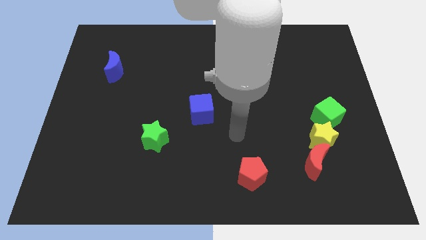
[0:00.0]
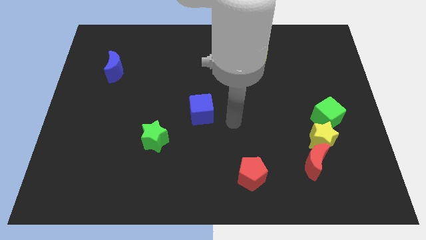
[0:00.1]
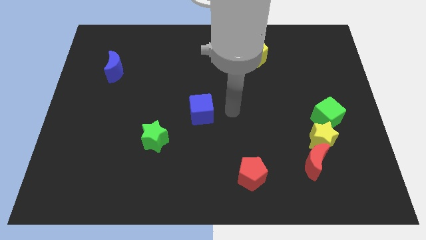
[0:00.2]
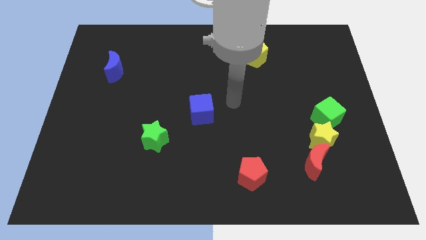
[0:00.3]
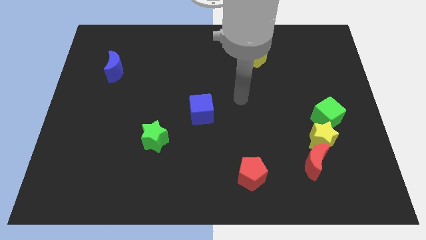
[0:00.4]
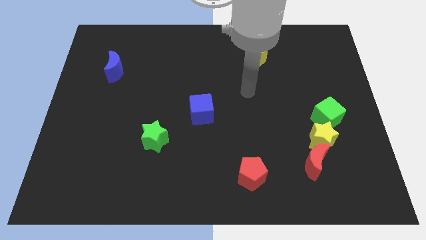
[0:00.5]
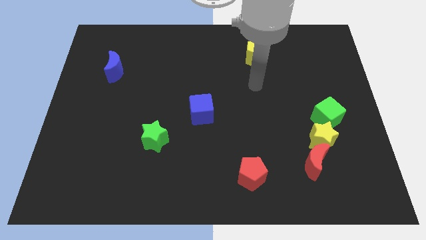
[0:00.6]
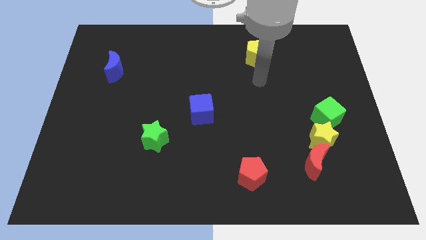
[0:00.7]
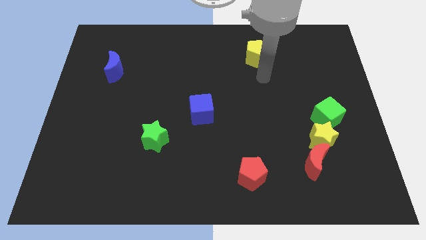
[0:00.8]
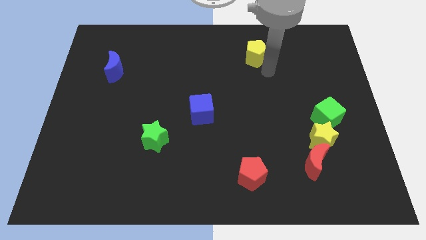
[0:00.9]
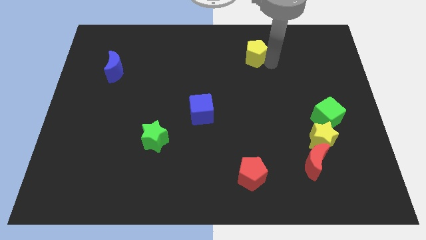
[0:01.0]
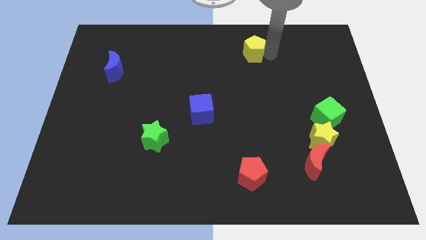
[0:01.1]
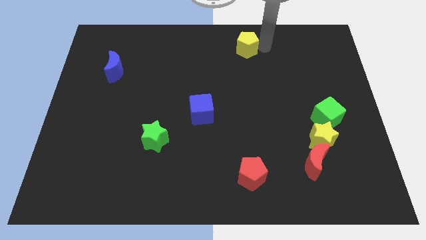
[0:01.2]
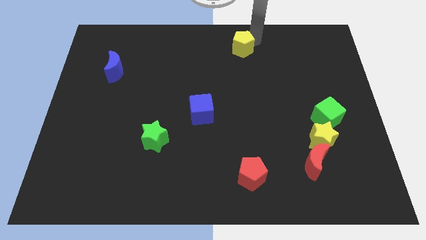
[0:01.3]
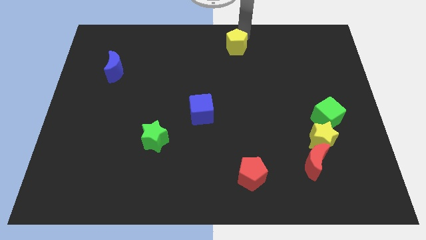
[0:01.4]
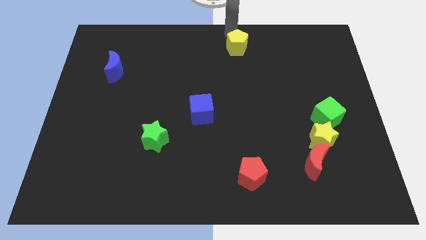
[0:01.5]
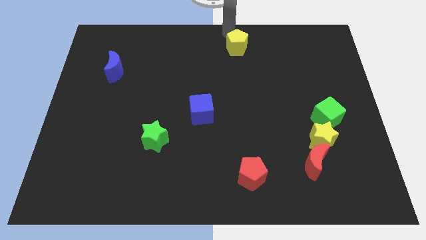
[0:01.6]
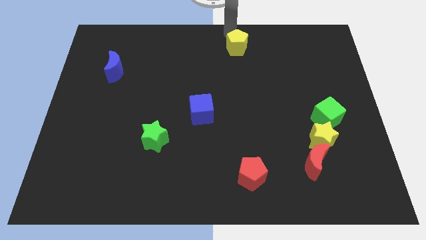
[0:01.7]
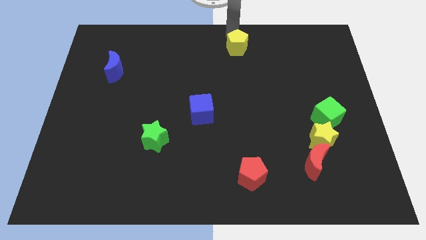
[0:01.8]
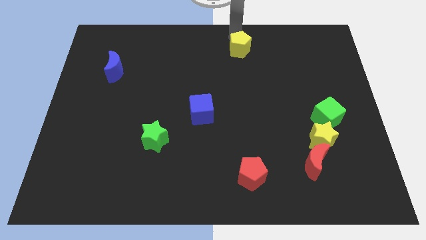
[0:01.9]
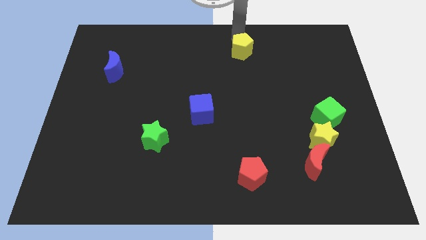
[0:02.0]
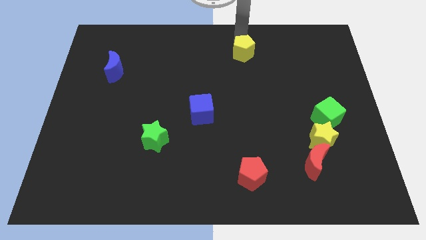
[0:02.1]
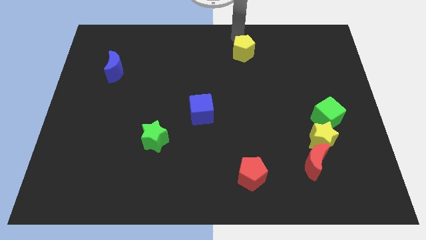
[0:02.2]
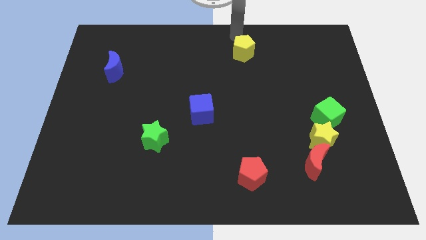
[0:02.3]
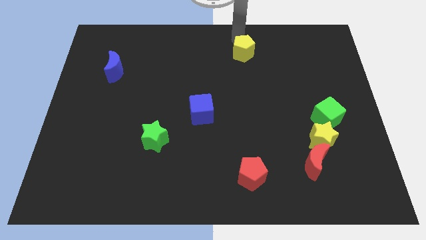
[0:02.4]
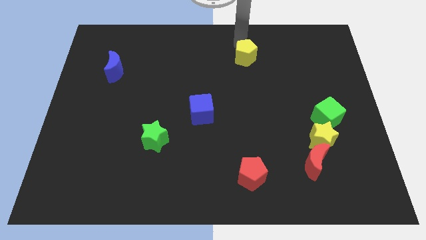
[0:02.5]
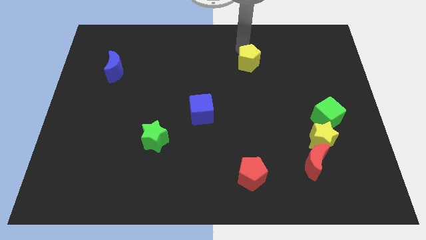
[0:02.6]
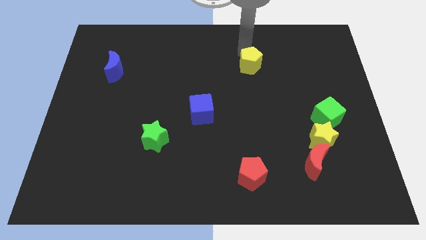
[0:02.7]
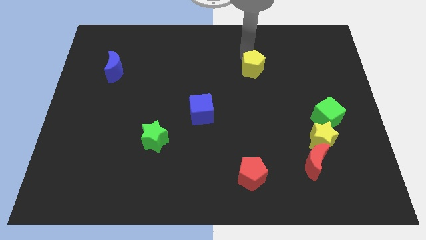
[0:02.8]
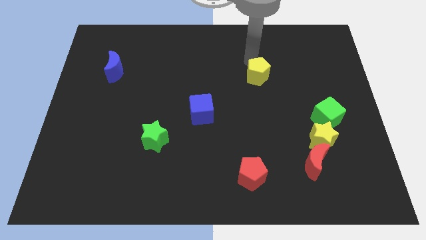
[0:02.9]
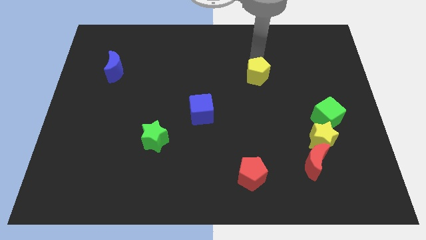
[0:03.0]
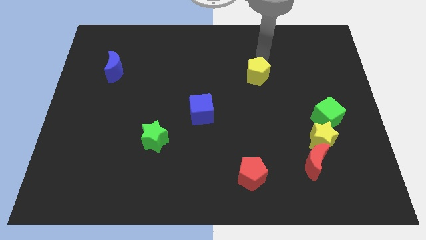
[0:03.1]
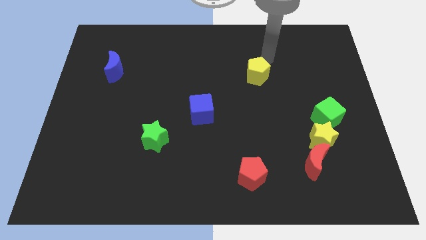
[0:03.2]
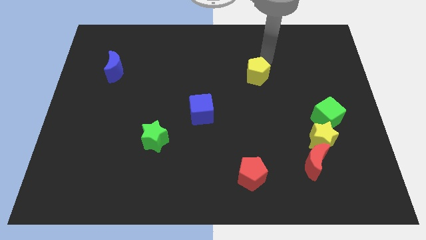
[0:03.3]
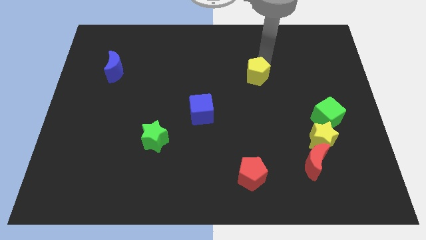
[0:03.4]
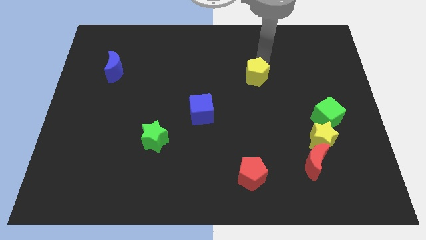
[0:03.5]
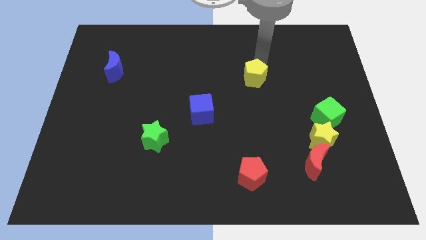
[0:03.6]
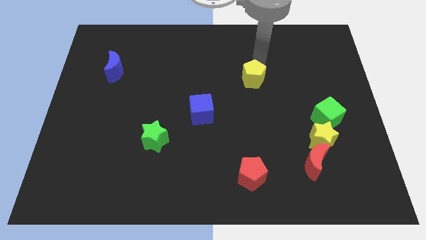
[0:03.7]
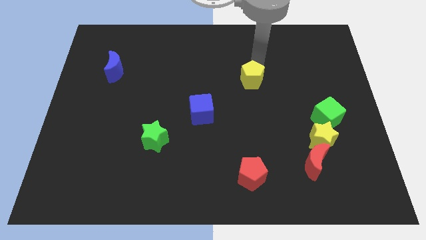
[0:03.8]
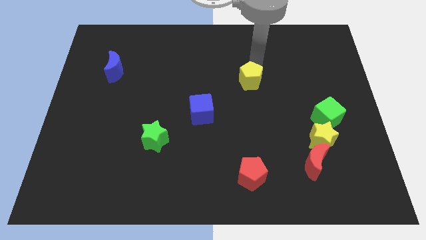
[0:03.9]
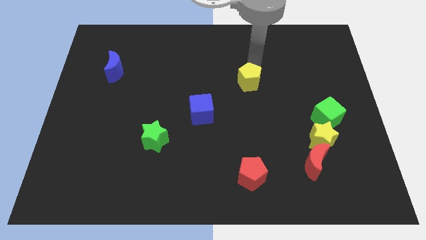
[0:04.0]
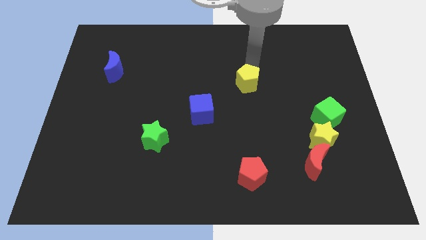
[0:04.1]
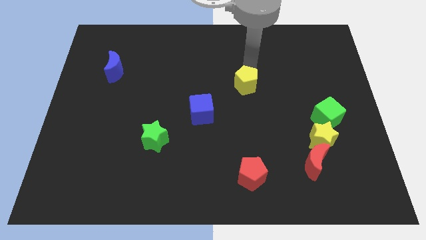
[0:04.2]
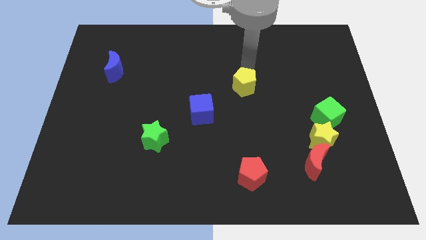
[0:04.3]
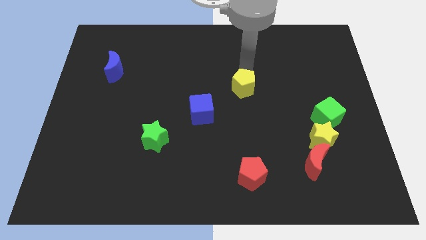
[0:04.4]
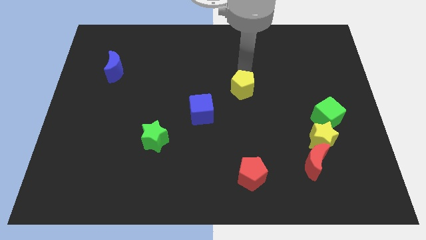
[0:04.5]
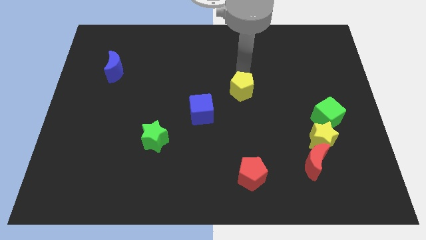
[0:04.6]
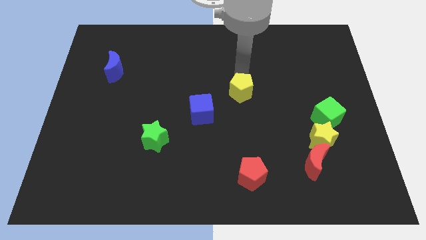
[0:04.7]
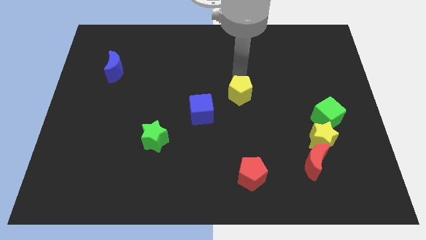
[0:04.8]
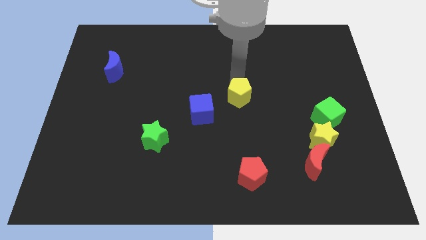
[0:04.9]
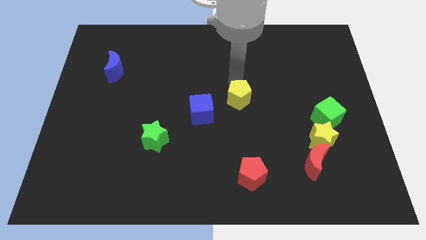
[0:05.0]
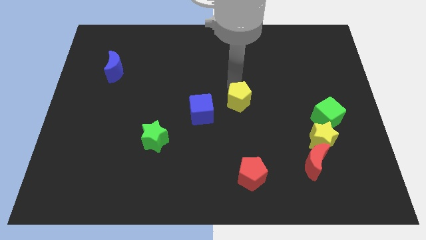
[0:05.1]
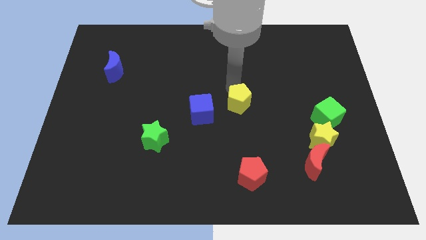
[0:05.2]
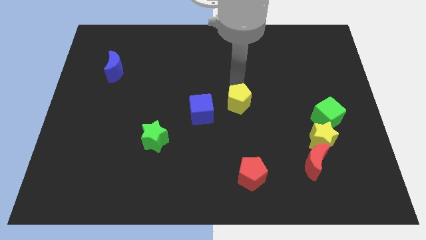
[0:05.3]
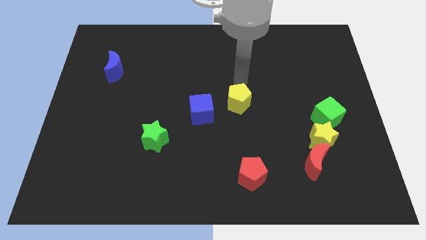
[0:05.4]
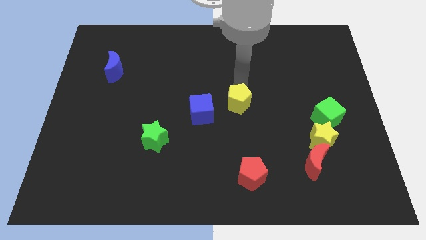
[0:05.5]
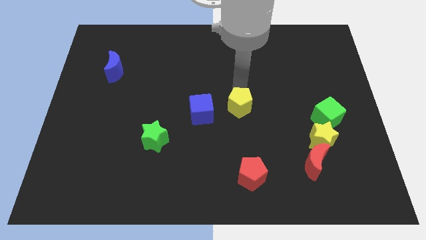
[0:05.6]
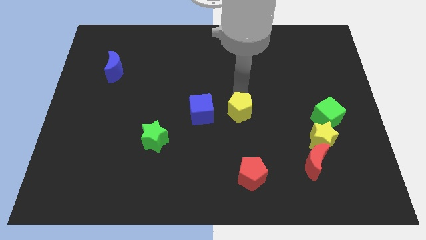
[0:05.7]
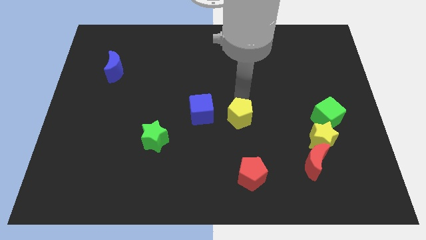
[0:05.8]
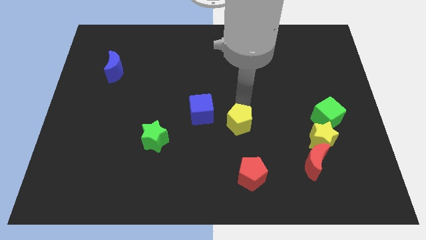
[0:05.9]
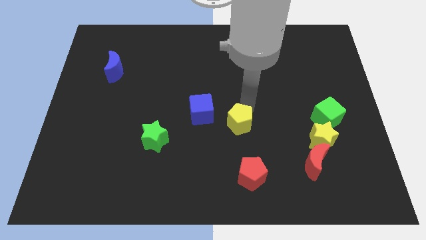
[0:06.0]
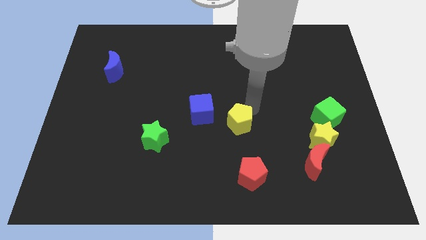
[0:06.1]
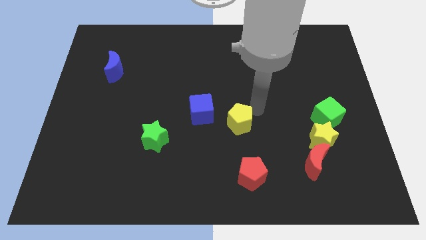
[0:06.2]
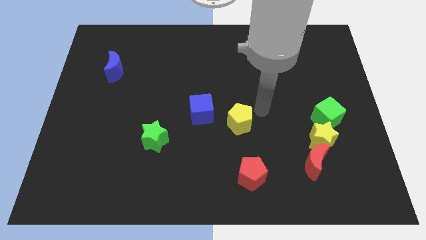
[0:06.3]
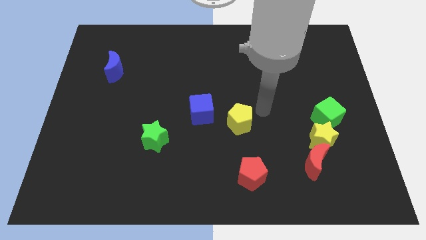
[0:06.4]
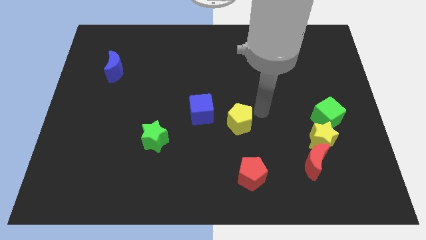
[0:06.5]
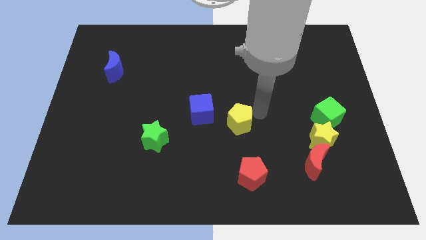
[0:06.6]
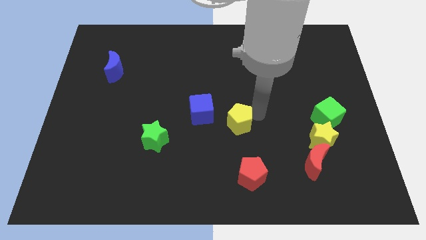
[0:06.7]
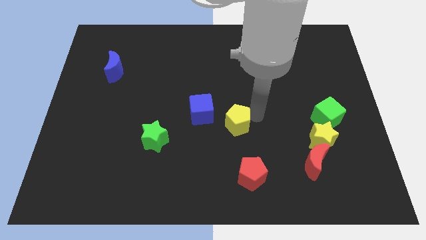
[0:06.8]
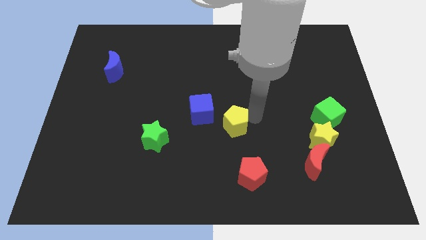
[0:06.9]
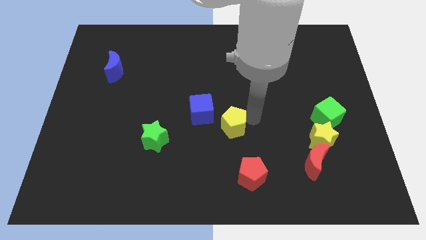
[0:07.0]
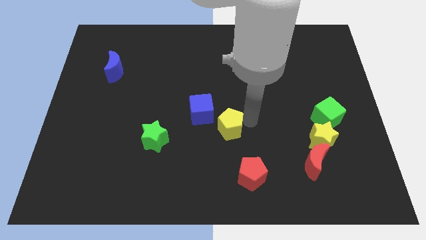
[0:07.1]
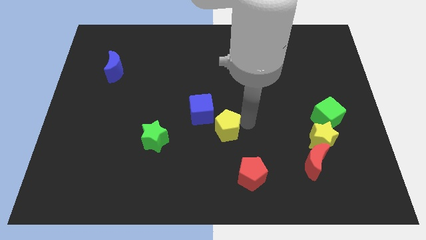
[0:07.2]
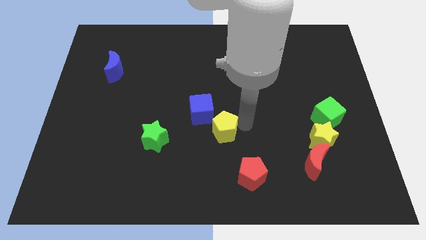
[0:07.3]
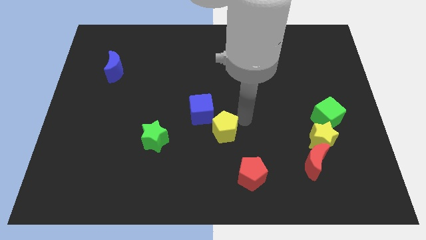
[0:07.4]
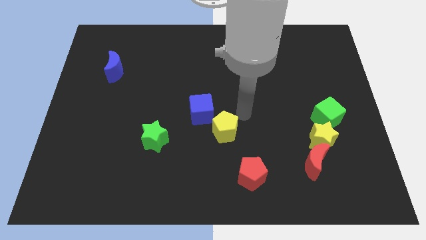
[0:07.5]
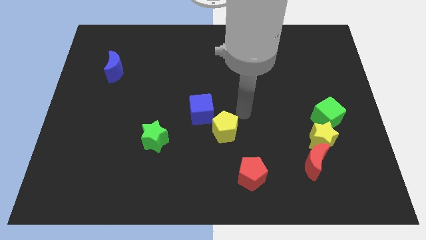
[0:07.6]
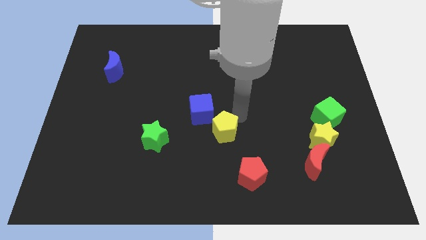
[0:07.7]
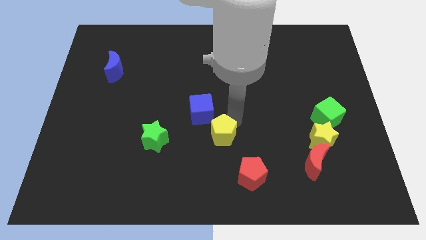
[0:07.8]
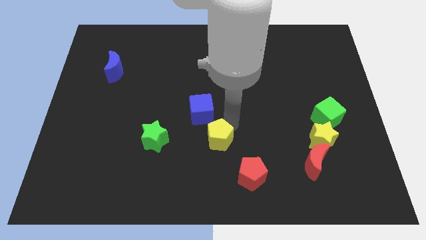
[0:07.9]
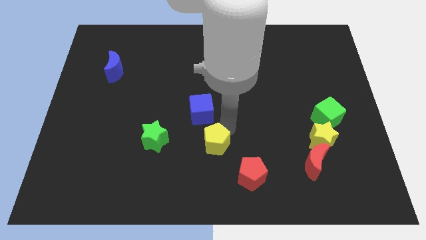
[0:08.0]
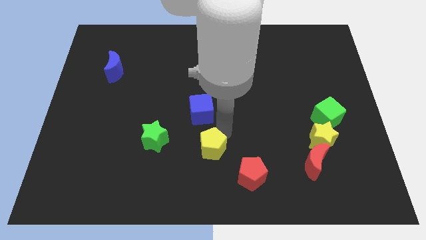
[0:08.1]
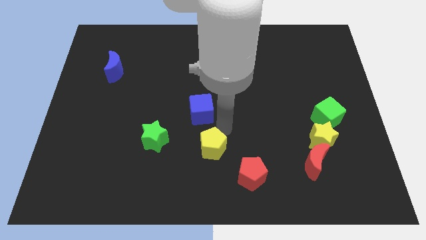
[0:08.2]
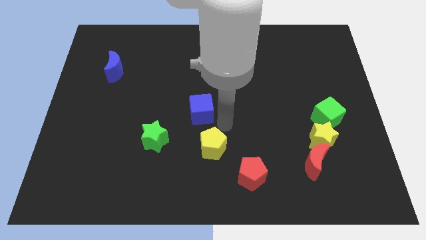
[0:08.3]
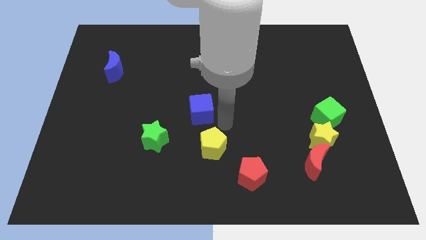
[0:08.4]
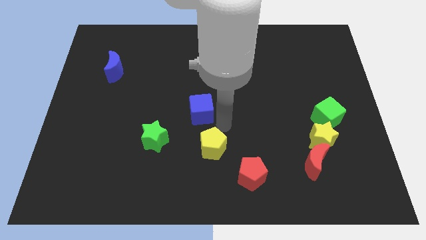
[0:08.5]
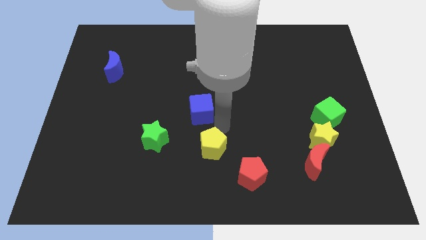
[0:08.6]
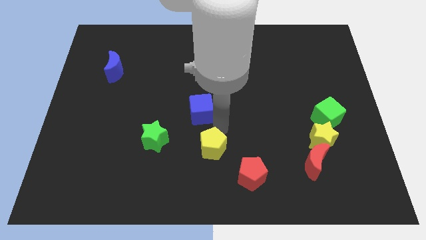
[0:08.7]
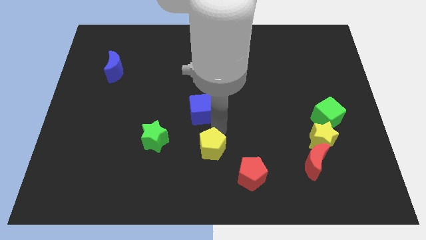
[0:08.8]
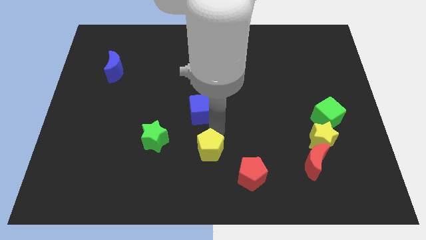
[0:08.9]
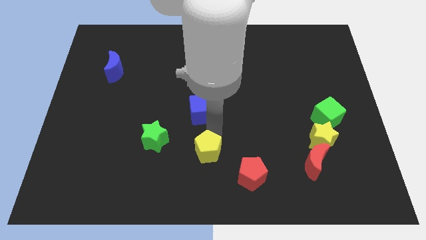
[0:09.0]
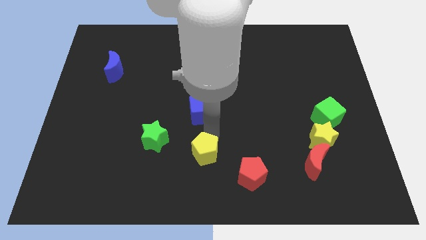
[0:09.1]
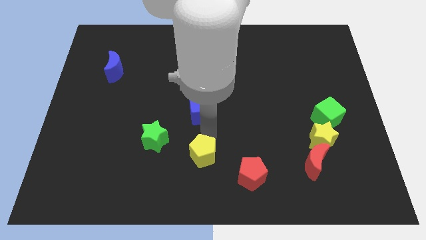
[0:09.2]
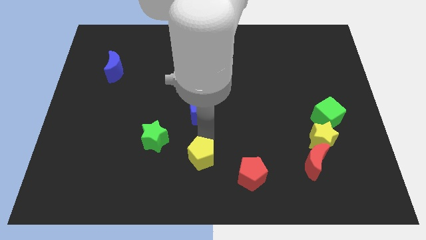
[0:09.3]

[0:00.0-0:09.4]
push the yellow pentagon left of the red pentagon
